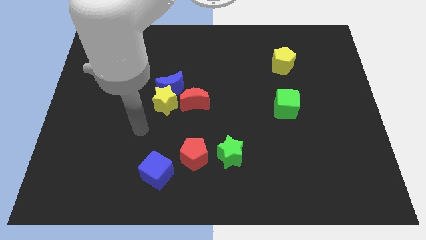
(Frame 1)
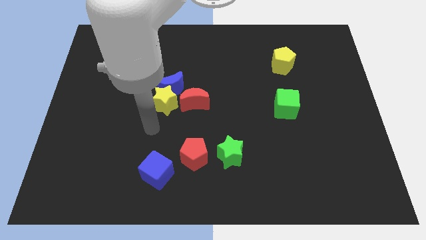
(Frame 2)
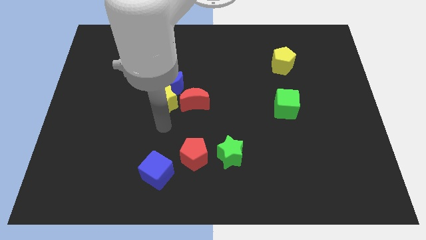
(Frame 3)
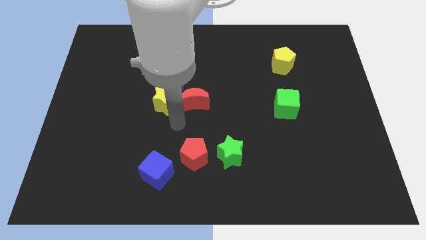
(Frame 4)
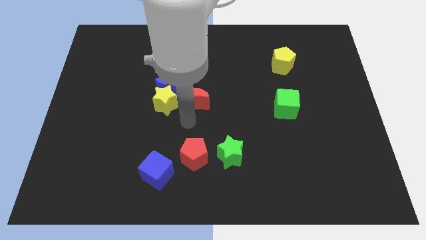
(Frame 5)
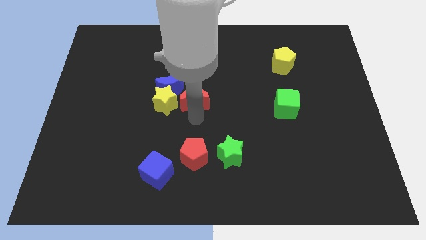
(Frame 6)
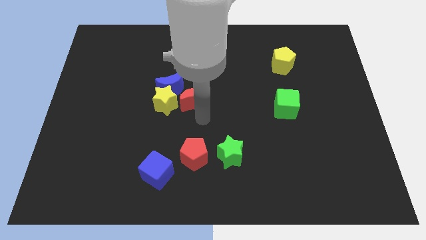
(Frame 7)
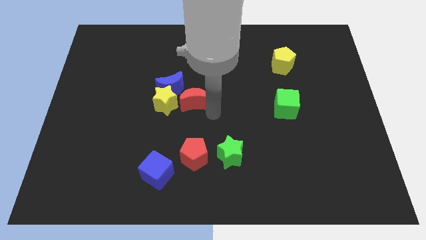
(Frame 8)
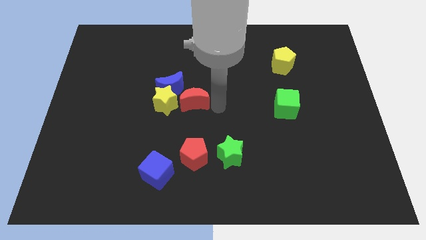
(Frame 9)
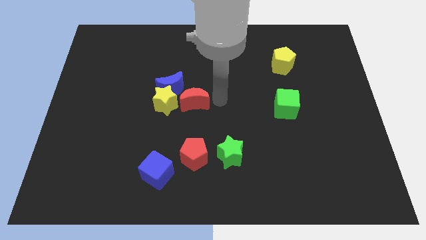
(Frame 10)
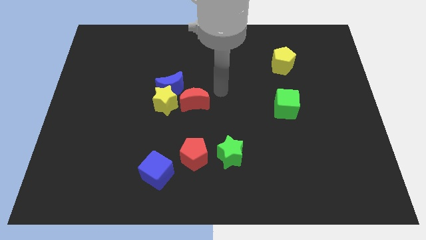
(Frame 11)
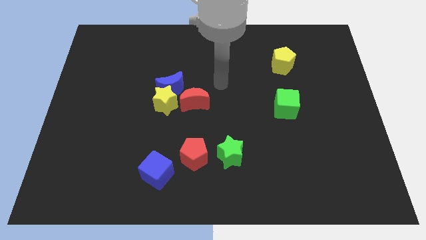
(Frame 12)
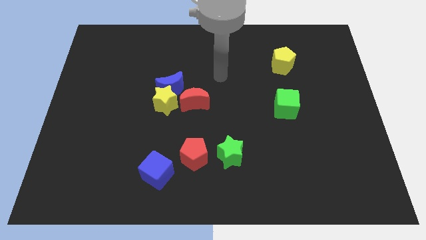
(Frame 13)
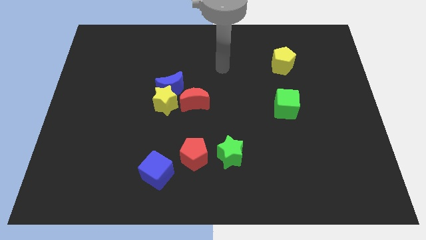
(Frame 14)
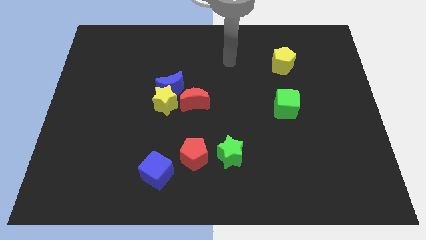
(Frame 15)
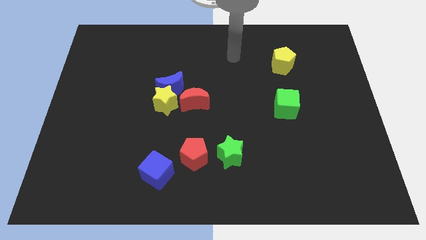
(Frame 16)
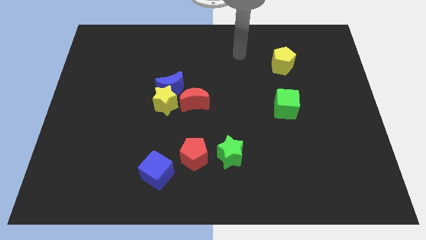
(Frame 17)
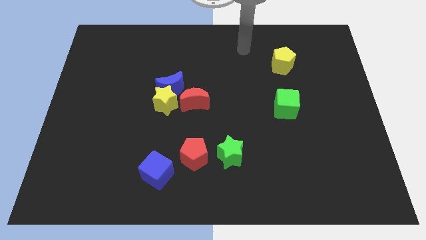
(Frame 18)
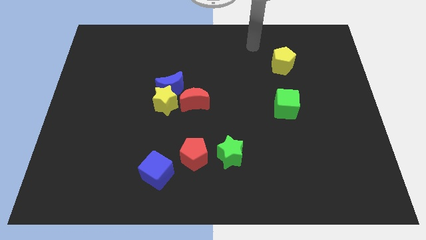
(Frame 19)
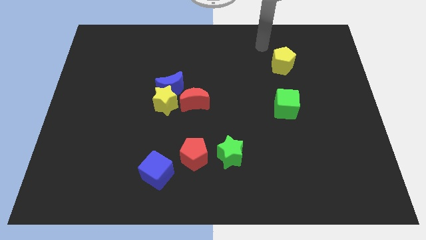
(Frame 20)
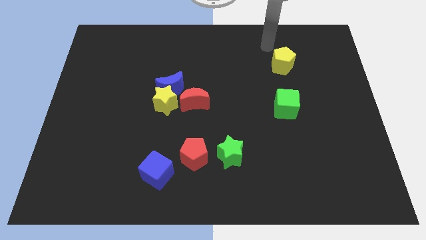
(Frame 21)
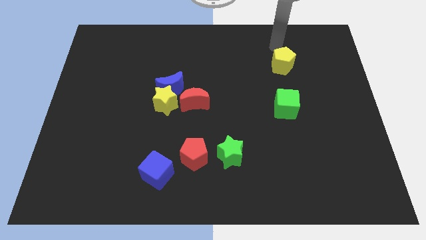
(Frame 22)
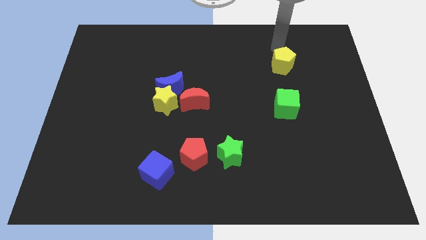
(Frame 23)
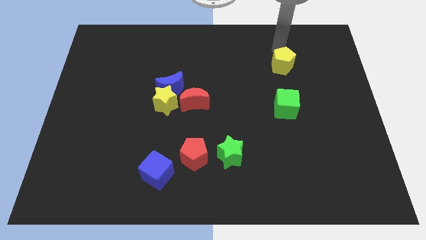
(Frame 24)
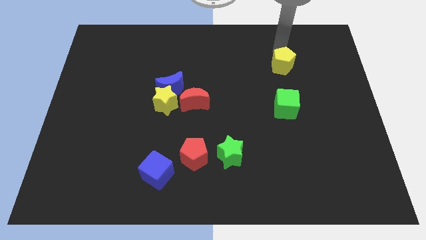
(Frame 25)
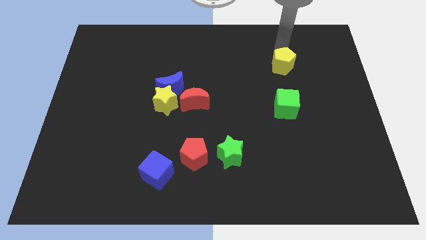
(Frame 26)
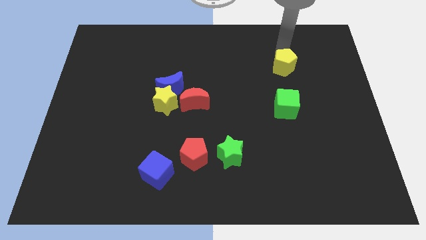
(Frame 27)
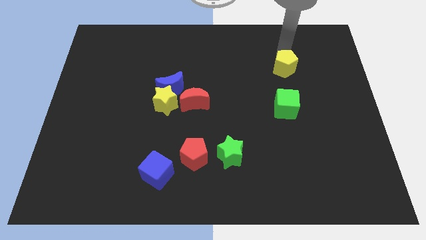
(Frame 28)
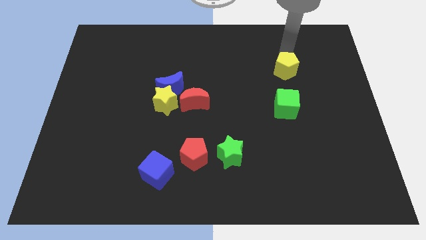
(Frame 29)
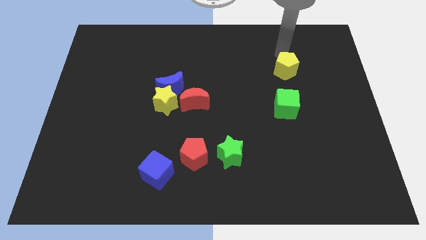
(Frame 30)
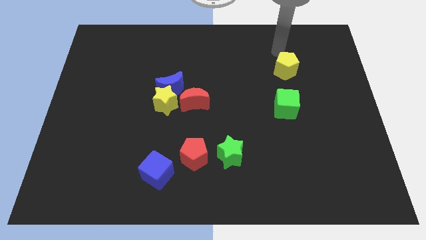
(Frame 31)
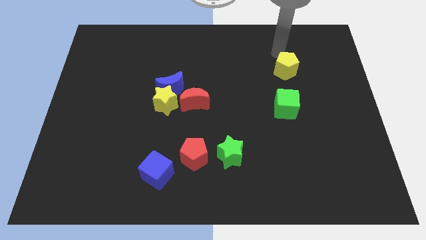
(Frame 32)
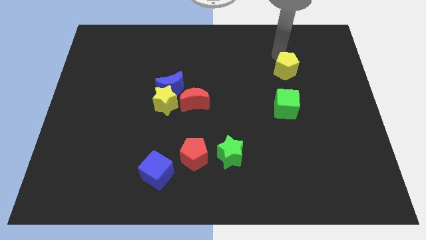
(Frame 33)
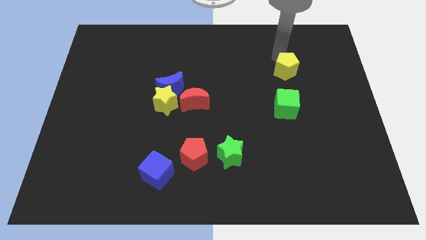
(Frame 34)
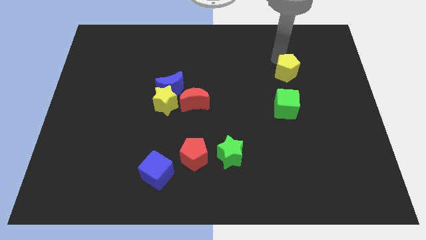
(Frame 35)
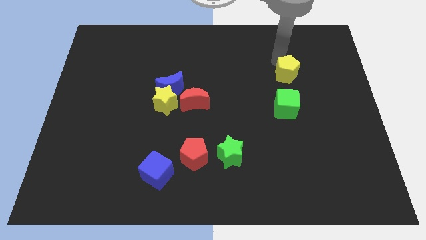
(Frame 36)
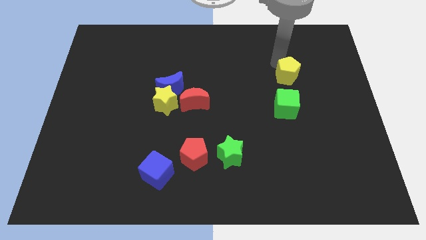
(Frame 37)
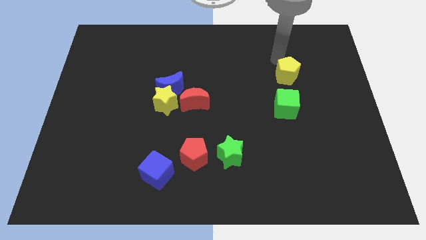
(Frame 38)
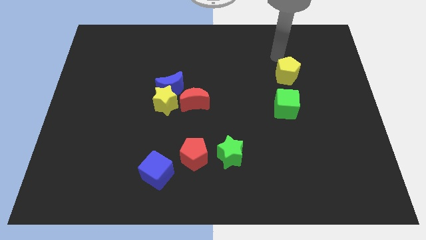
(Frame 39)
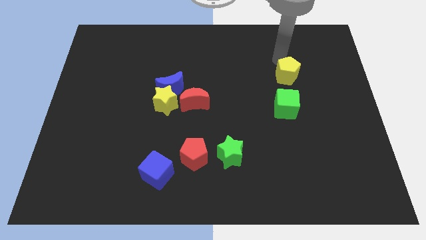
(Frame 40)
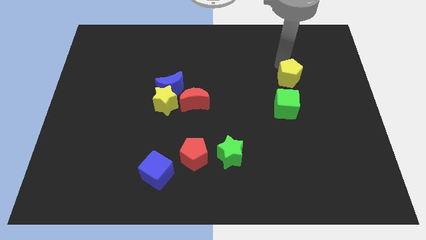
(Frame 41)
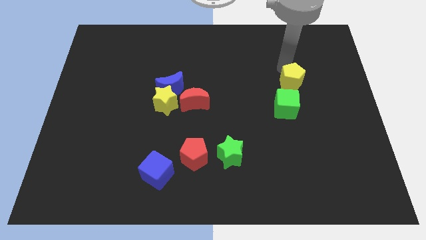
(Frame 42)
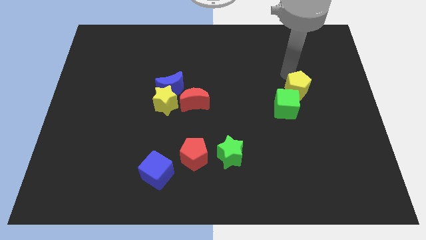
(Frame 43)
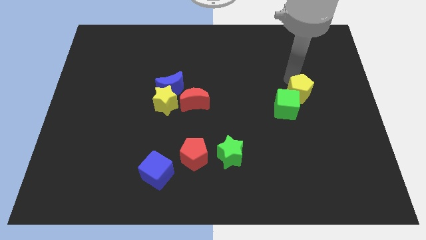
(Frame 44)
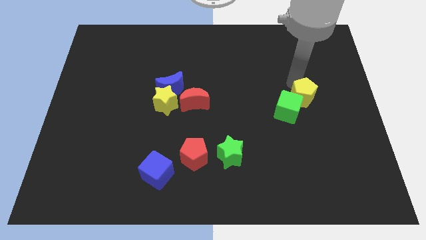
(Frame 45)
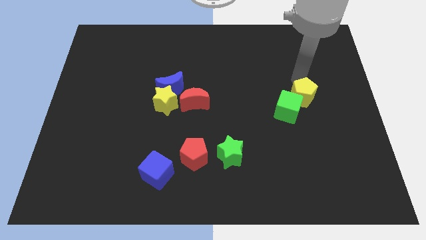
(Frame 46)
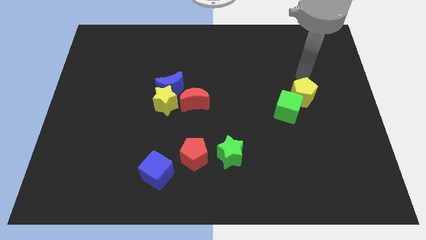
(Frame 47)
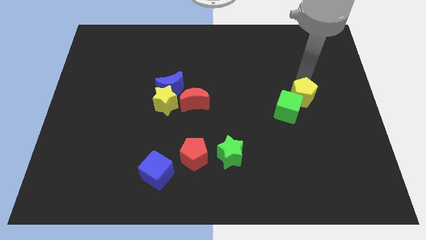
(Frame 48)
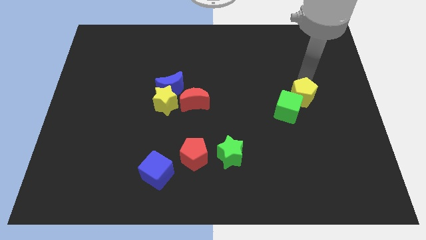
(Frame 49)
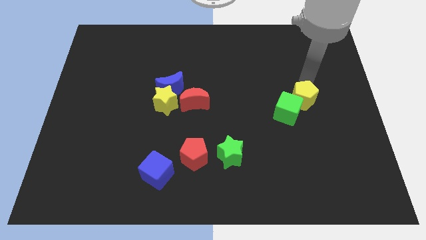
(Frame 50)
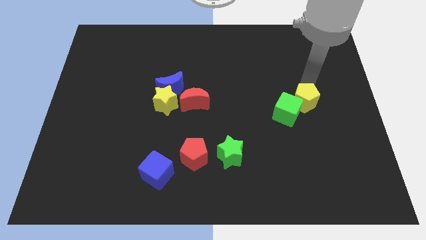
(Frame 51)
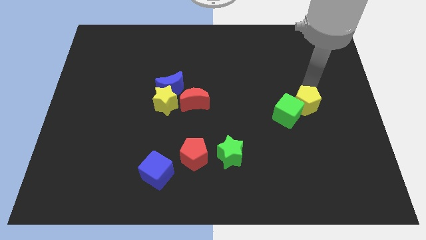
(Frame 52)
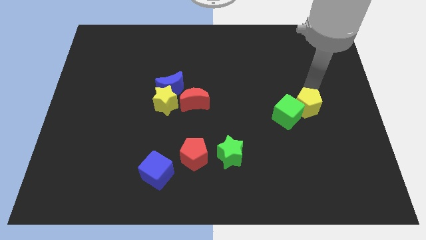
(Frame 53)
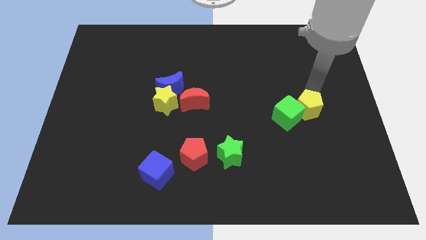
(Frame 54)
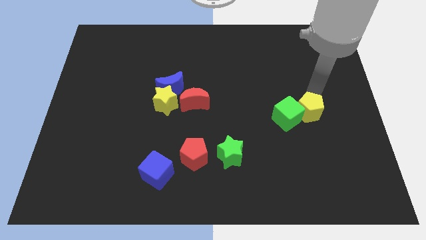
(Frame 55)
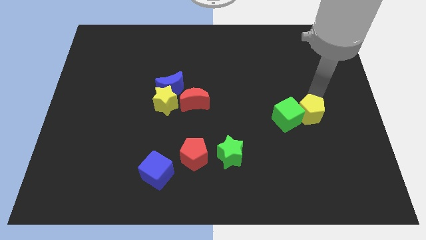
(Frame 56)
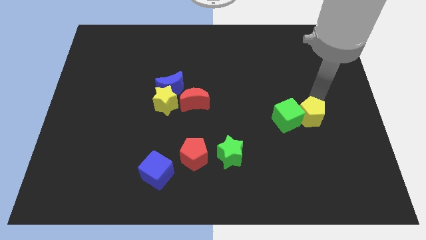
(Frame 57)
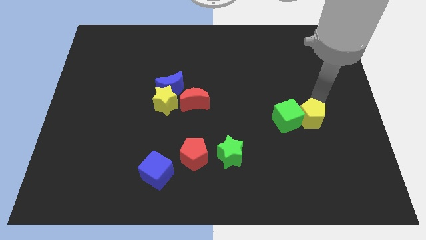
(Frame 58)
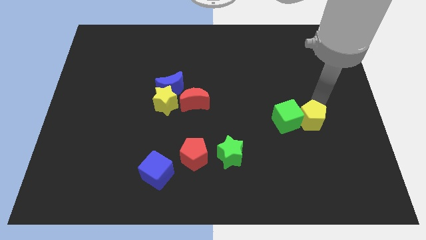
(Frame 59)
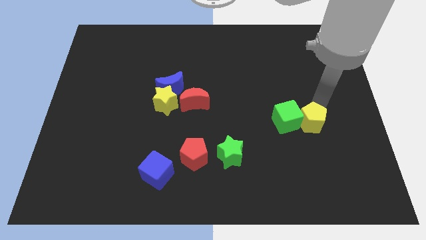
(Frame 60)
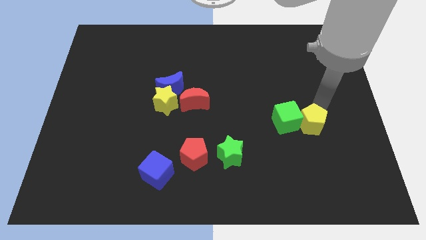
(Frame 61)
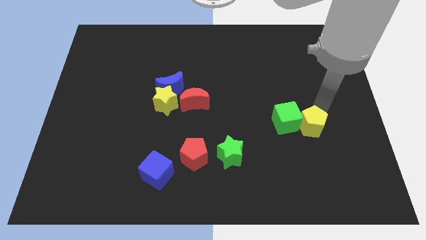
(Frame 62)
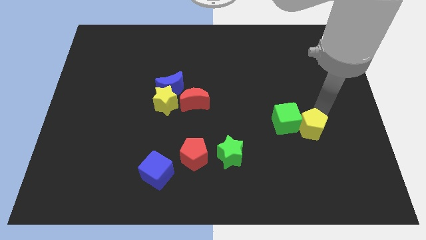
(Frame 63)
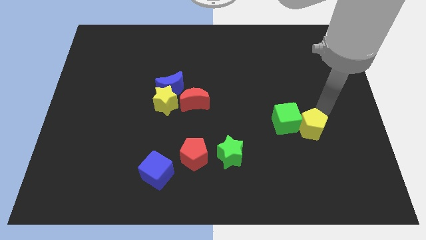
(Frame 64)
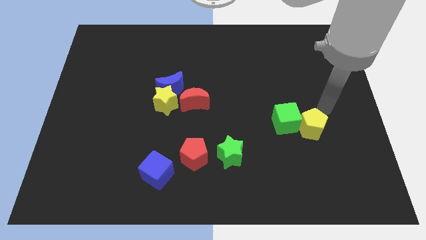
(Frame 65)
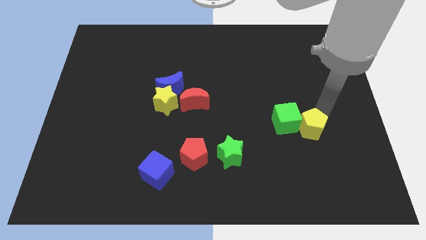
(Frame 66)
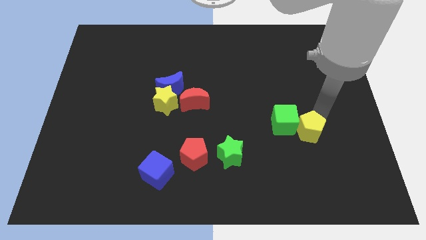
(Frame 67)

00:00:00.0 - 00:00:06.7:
move the yellow pentagon downwards

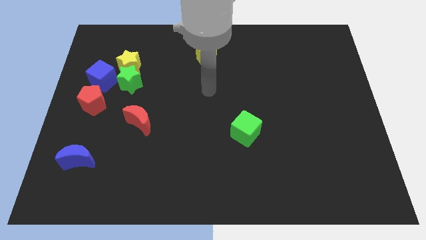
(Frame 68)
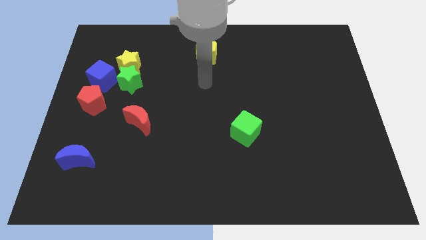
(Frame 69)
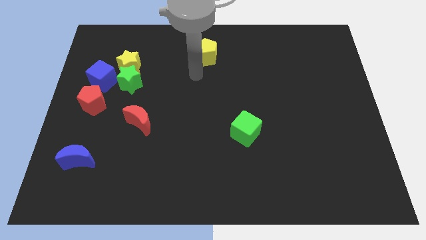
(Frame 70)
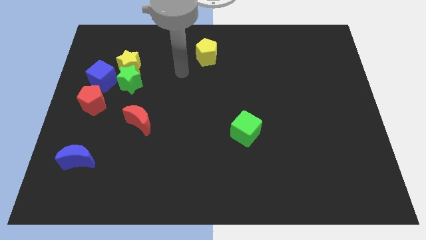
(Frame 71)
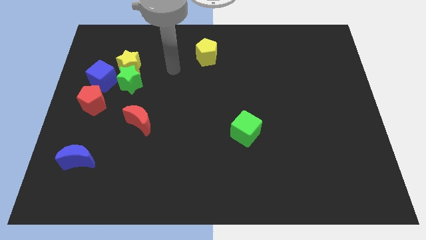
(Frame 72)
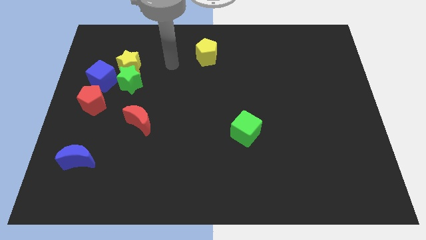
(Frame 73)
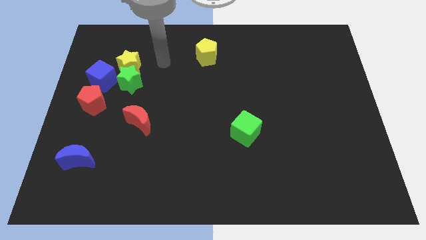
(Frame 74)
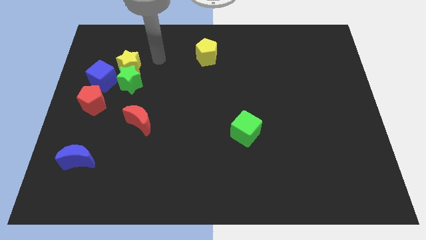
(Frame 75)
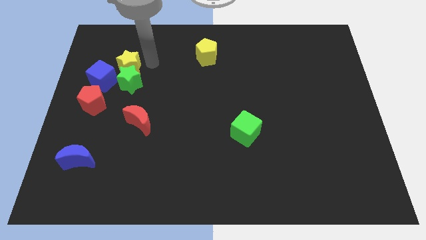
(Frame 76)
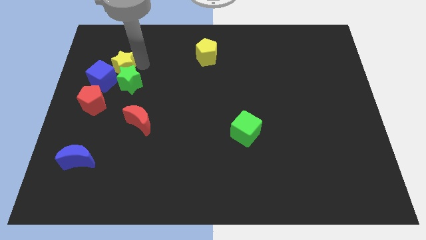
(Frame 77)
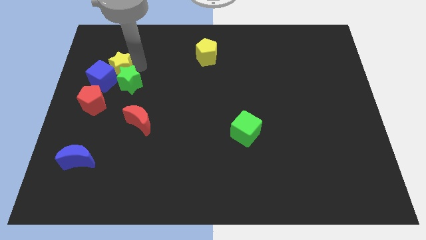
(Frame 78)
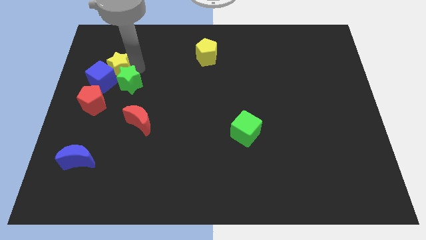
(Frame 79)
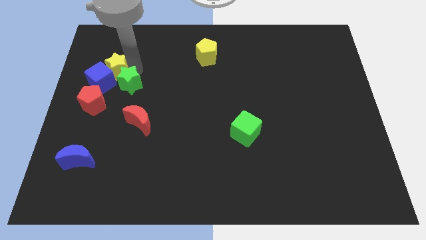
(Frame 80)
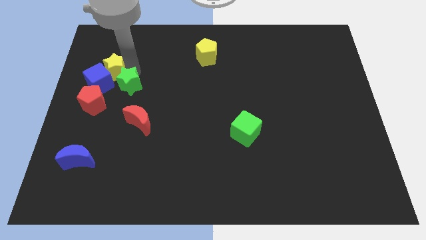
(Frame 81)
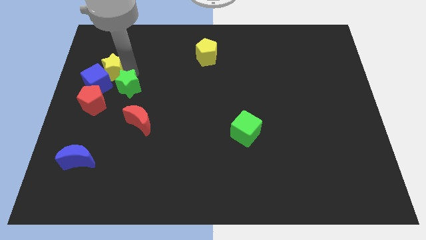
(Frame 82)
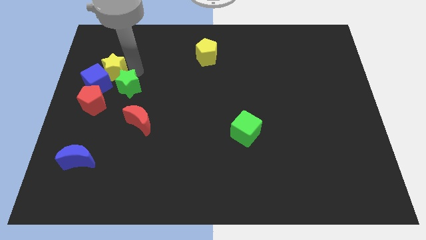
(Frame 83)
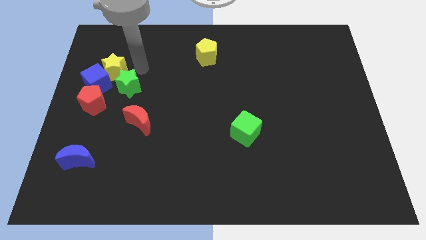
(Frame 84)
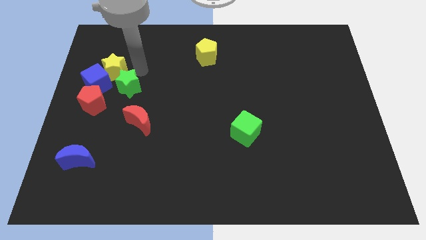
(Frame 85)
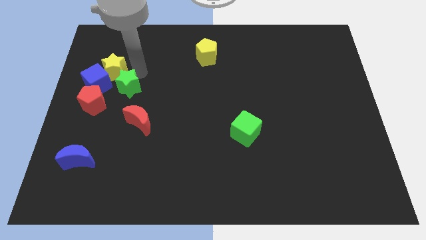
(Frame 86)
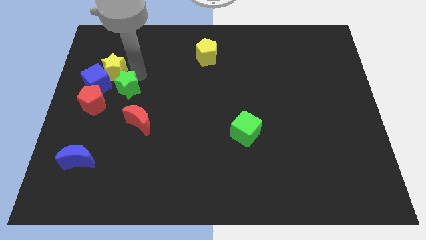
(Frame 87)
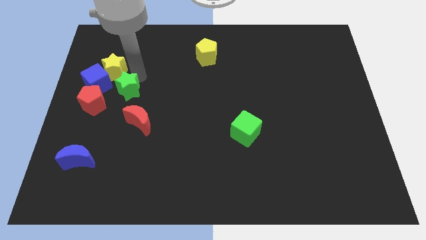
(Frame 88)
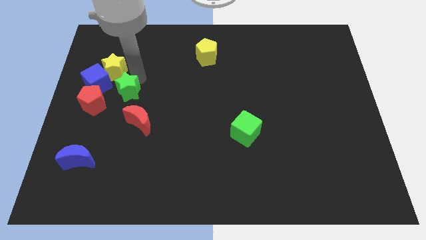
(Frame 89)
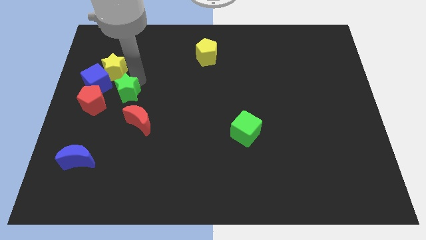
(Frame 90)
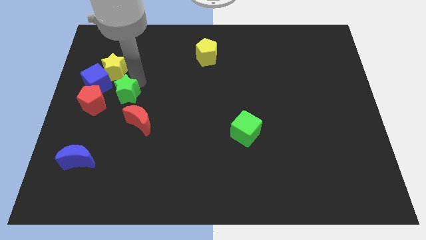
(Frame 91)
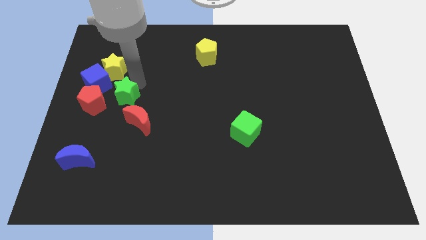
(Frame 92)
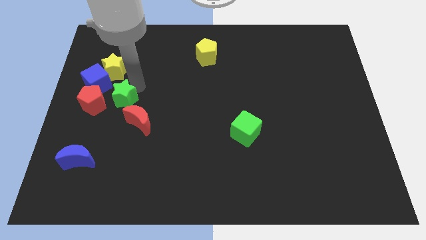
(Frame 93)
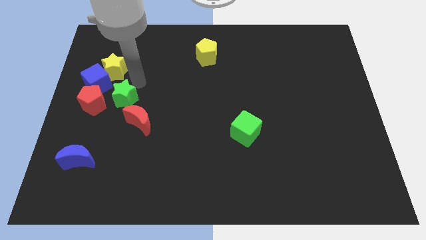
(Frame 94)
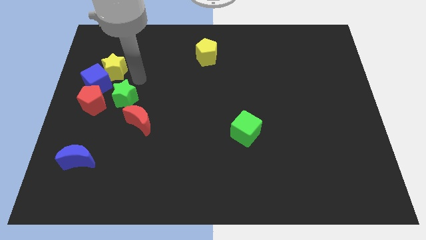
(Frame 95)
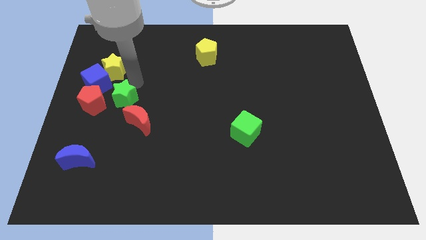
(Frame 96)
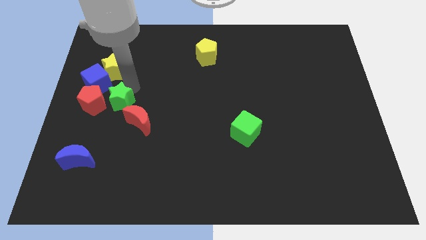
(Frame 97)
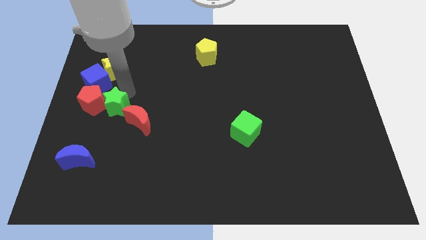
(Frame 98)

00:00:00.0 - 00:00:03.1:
move the green star slightly downwards
